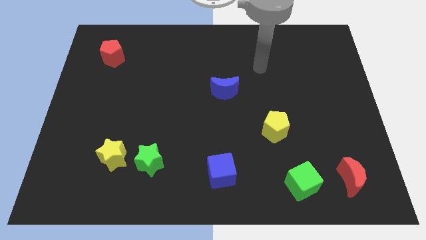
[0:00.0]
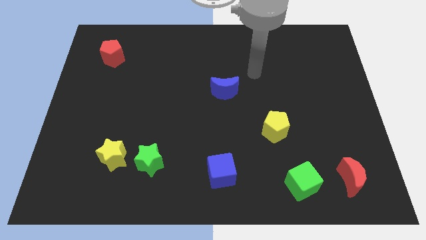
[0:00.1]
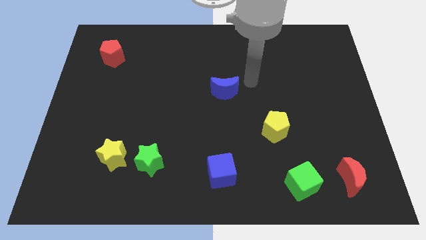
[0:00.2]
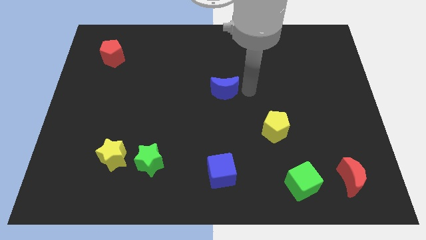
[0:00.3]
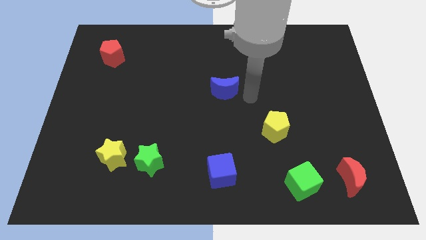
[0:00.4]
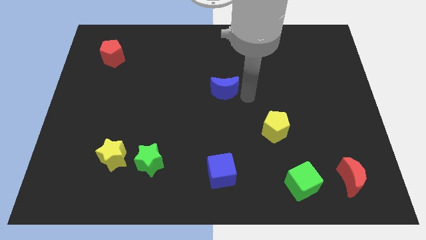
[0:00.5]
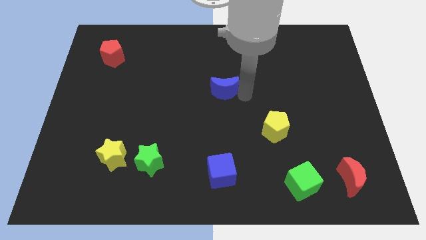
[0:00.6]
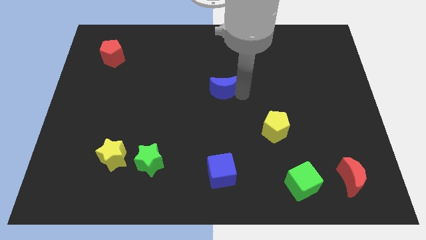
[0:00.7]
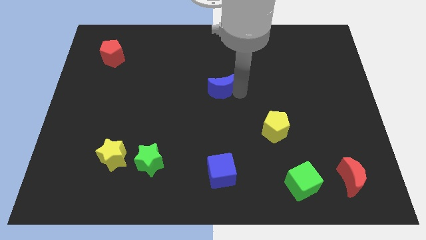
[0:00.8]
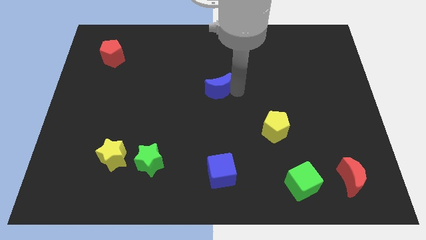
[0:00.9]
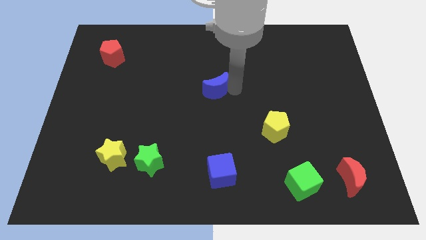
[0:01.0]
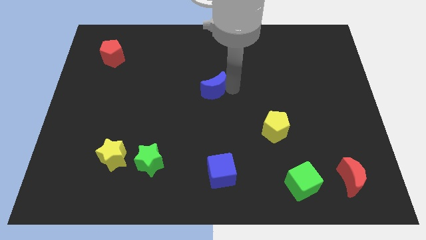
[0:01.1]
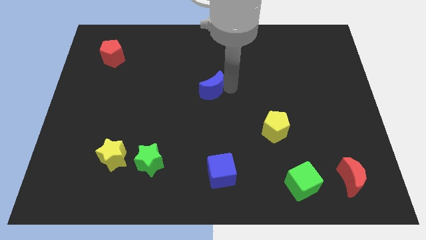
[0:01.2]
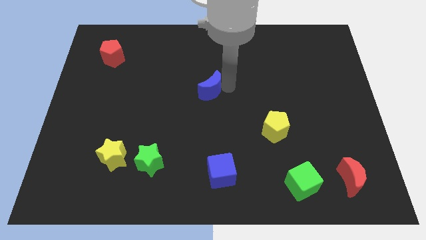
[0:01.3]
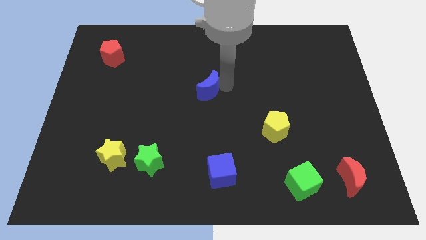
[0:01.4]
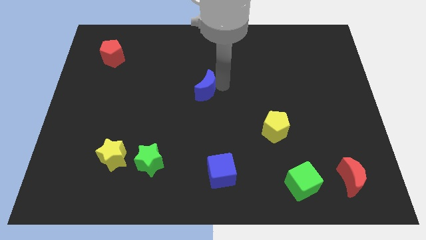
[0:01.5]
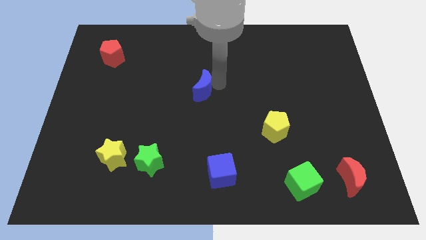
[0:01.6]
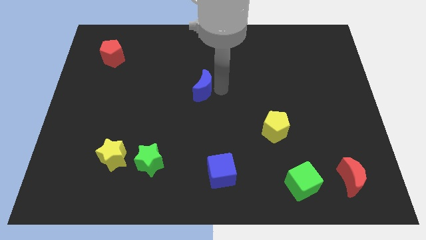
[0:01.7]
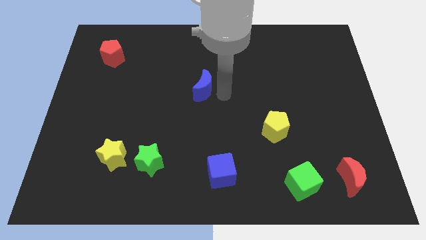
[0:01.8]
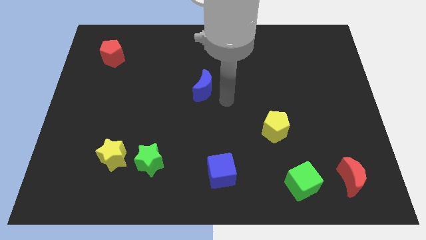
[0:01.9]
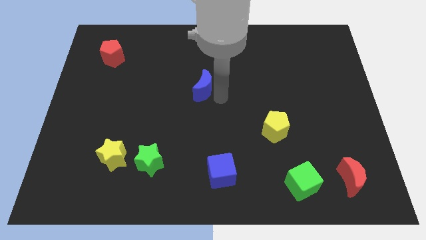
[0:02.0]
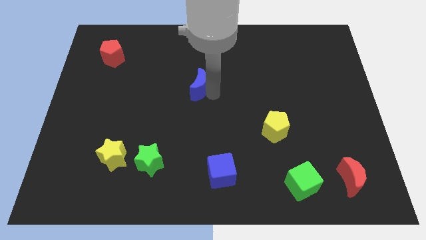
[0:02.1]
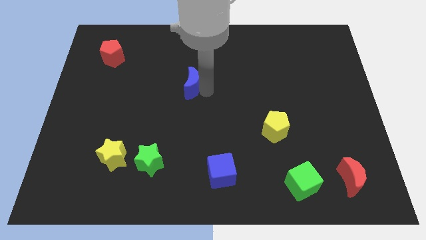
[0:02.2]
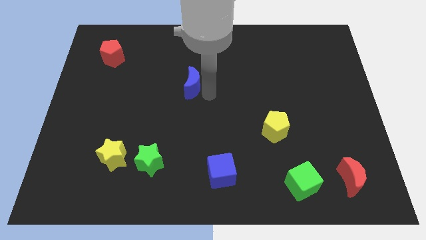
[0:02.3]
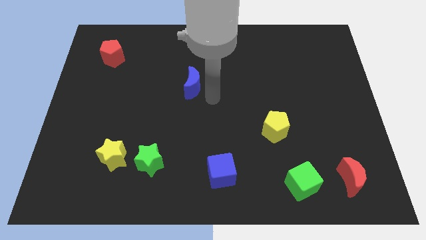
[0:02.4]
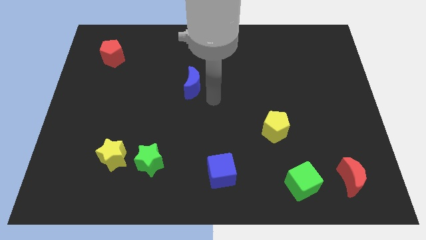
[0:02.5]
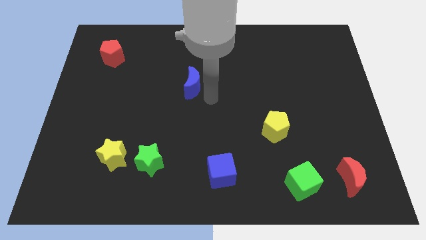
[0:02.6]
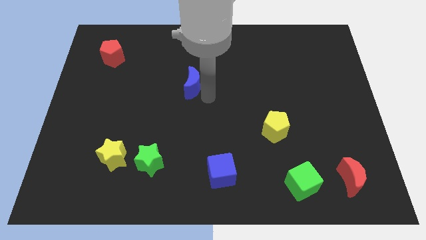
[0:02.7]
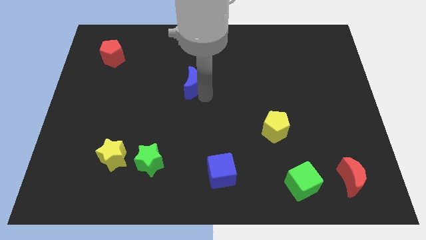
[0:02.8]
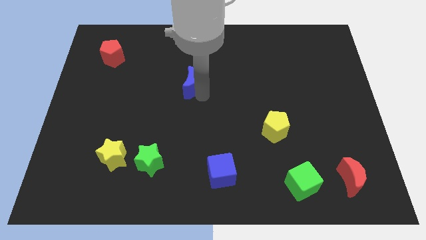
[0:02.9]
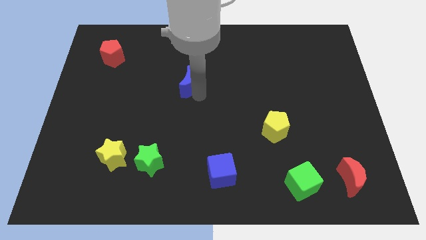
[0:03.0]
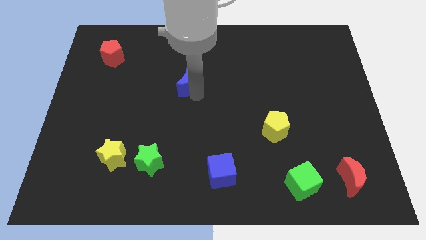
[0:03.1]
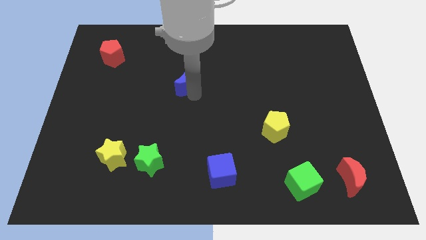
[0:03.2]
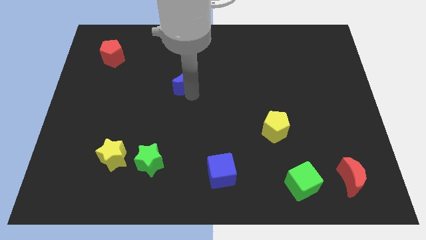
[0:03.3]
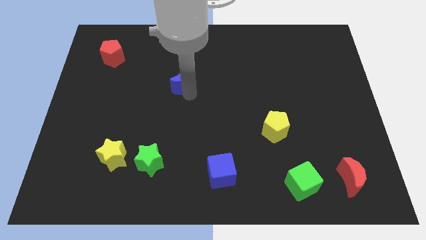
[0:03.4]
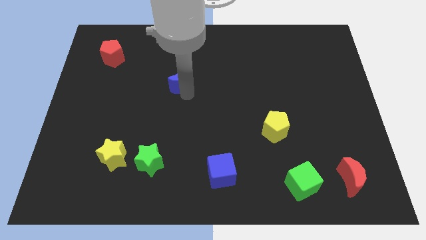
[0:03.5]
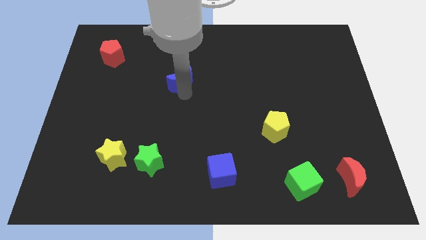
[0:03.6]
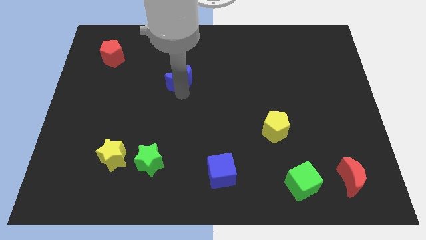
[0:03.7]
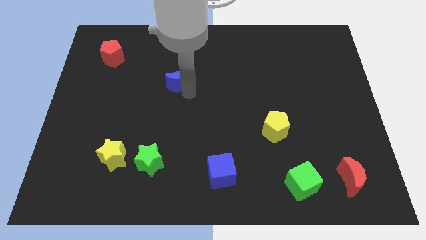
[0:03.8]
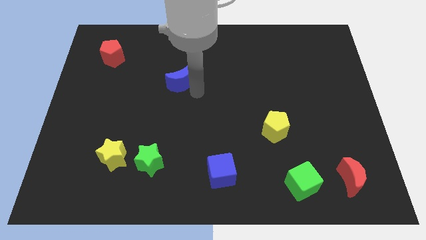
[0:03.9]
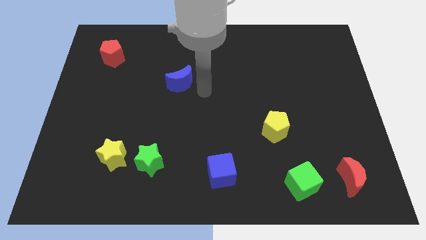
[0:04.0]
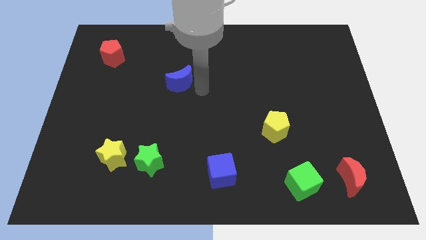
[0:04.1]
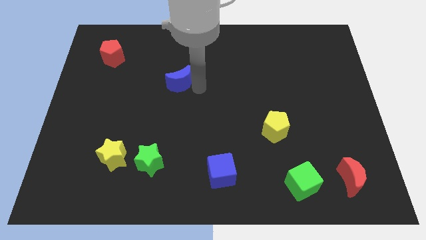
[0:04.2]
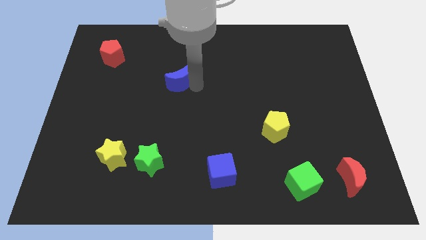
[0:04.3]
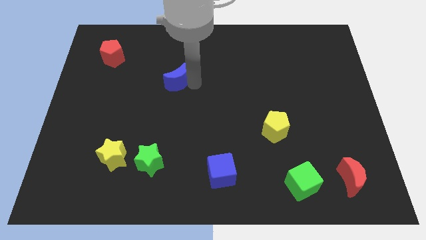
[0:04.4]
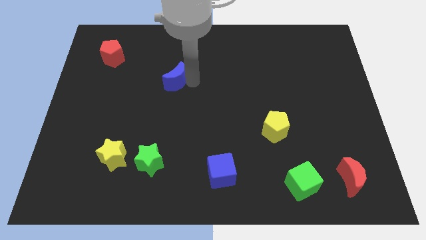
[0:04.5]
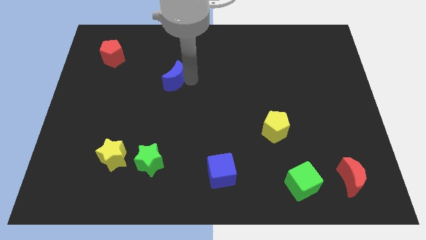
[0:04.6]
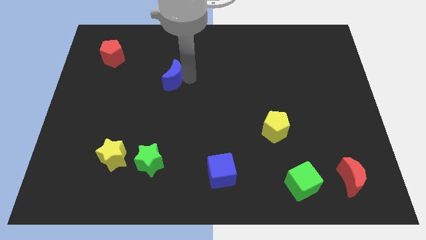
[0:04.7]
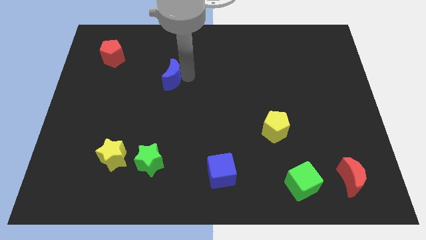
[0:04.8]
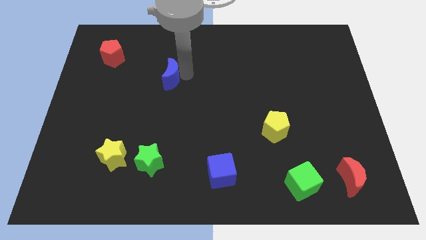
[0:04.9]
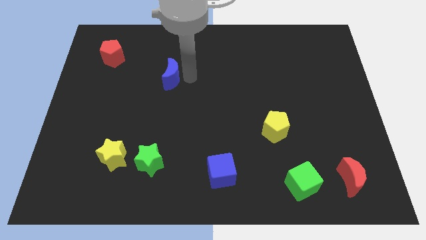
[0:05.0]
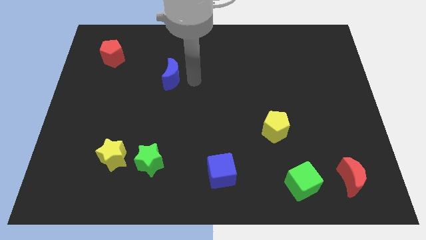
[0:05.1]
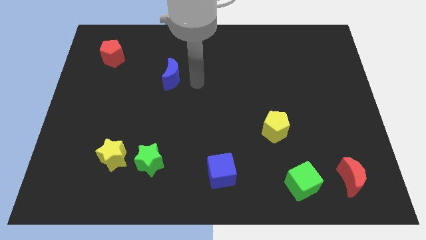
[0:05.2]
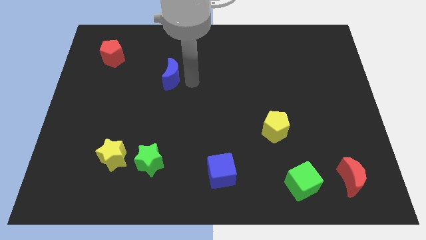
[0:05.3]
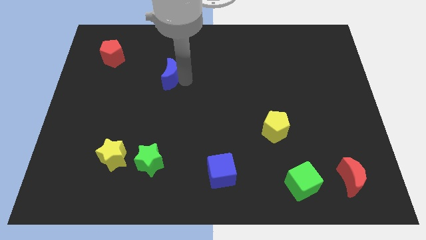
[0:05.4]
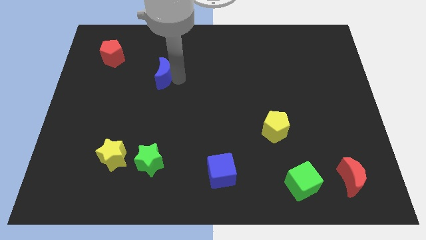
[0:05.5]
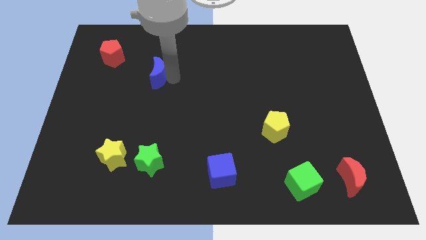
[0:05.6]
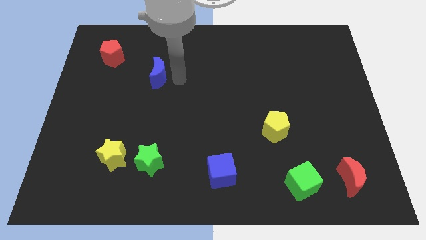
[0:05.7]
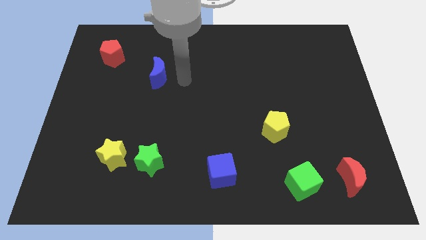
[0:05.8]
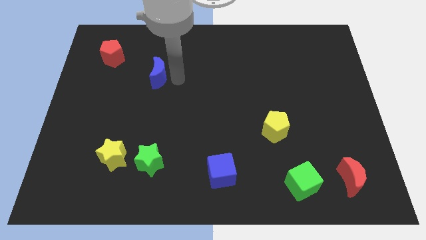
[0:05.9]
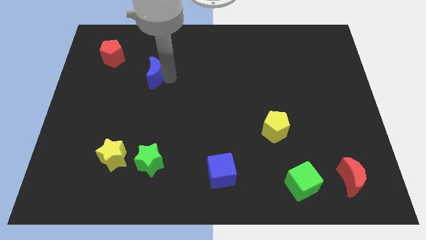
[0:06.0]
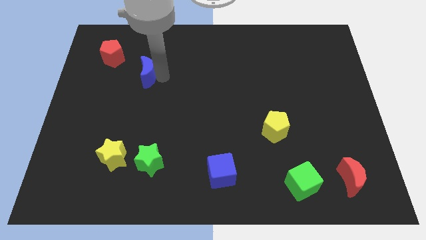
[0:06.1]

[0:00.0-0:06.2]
push the blue moon to the bottom right of the red pentagon

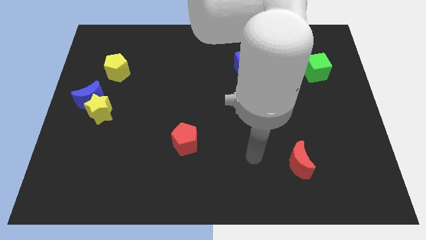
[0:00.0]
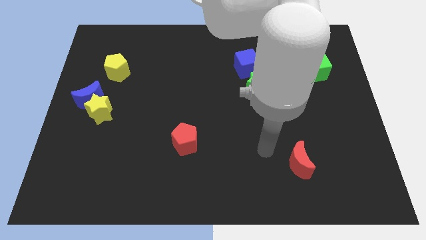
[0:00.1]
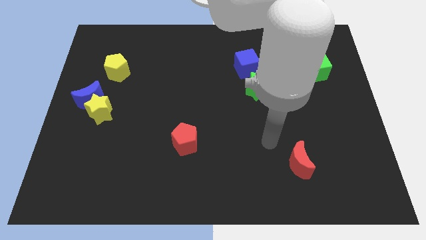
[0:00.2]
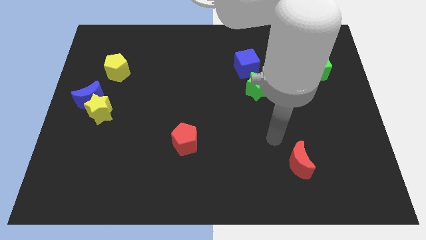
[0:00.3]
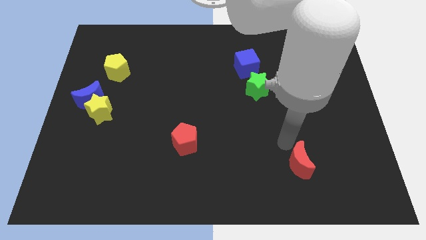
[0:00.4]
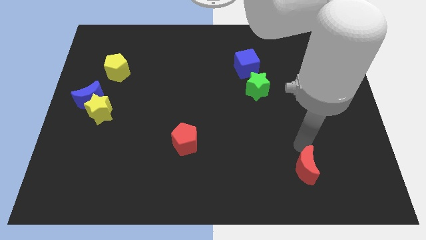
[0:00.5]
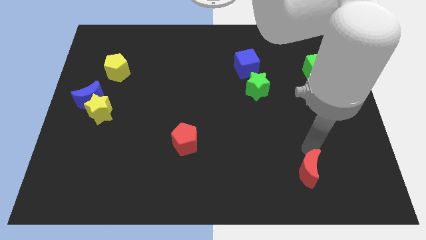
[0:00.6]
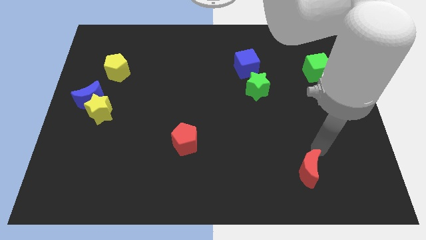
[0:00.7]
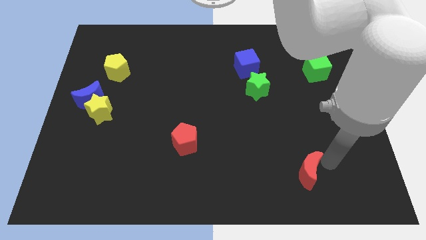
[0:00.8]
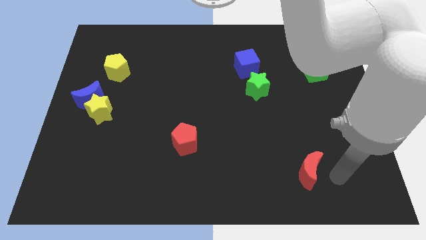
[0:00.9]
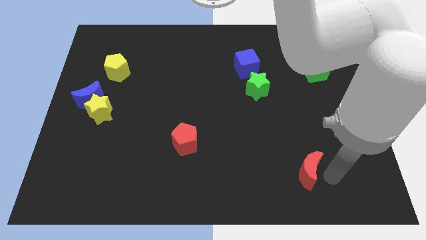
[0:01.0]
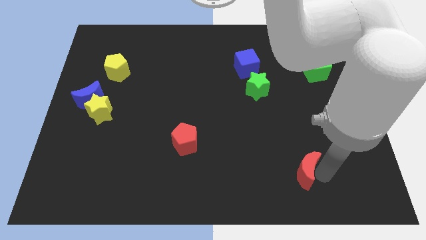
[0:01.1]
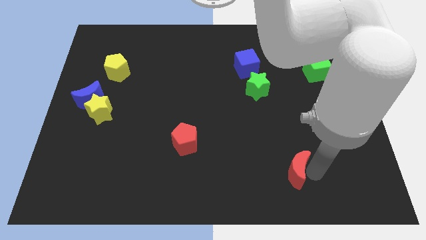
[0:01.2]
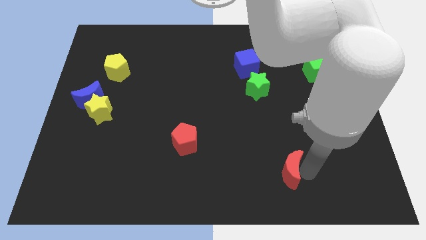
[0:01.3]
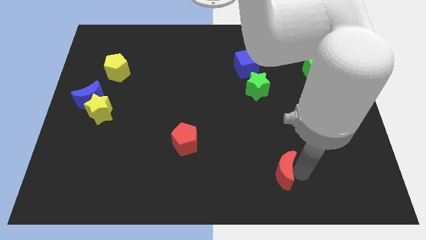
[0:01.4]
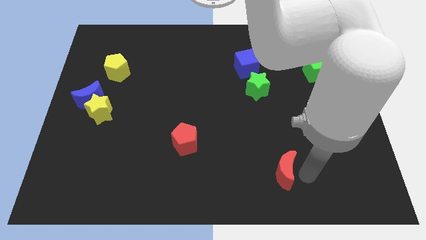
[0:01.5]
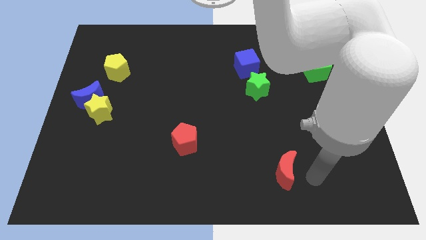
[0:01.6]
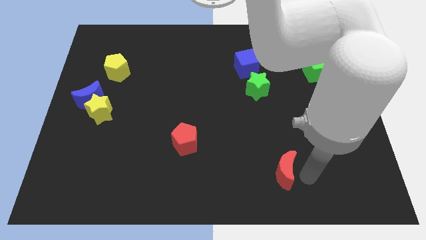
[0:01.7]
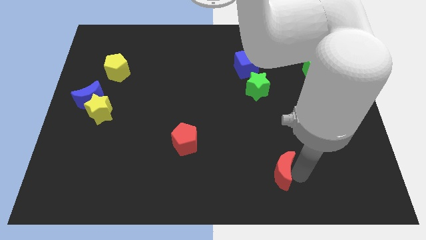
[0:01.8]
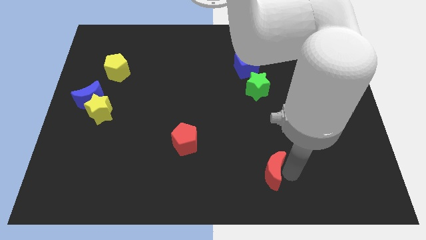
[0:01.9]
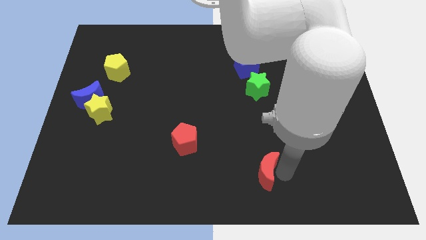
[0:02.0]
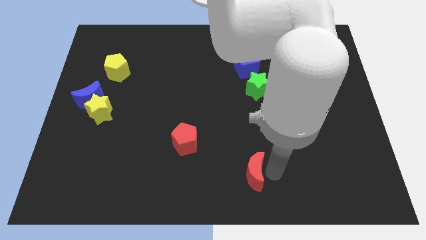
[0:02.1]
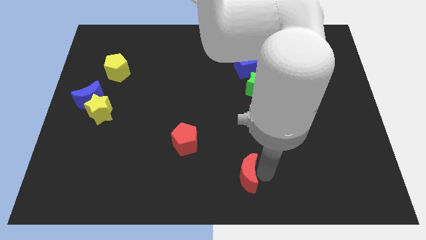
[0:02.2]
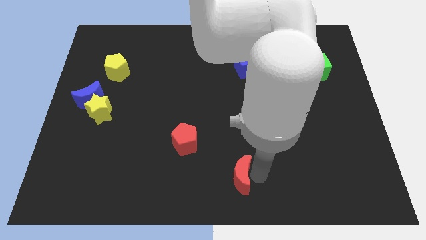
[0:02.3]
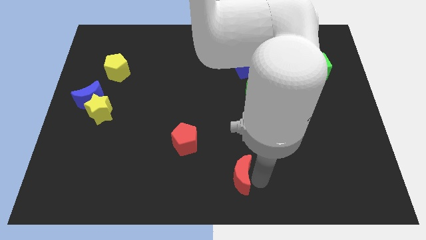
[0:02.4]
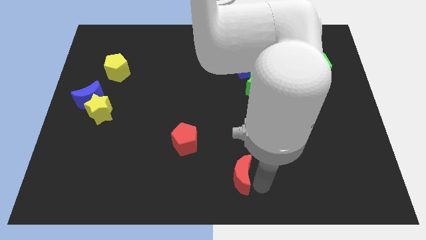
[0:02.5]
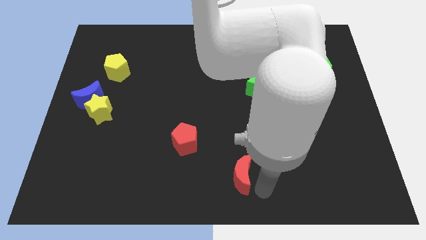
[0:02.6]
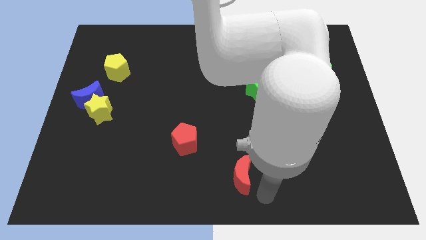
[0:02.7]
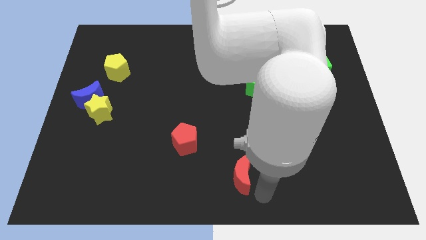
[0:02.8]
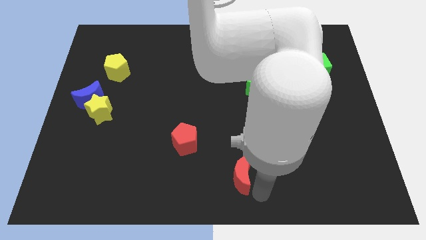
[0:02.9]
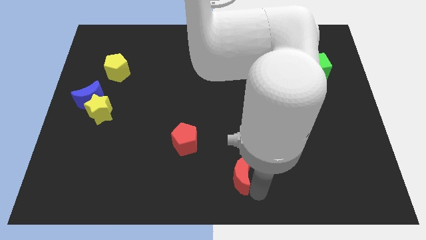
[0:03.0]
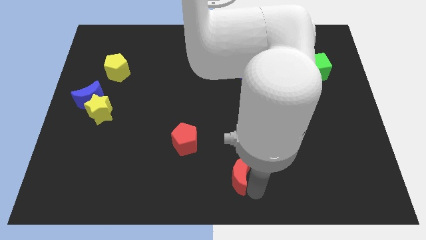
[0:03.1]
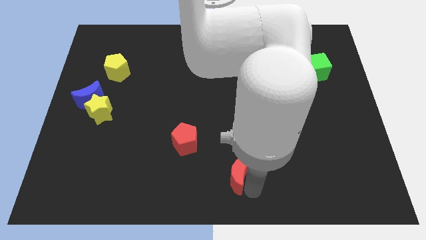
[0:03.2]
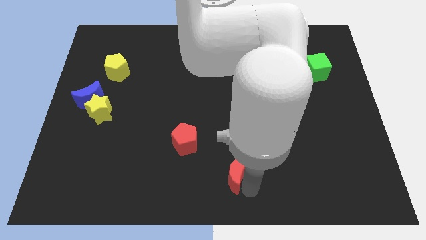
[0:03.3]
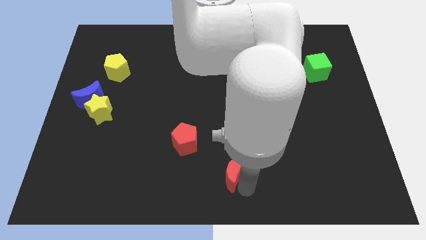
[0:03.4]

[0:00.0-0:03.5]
put the red moon diagonally down and to the right of the red pentagon
